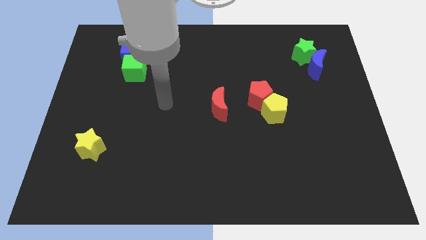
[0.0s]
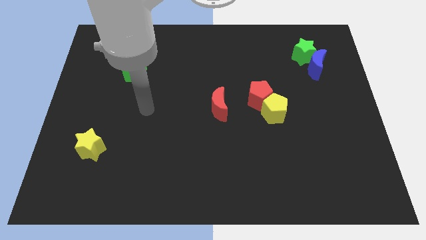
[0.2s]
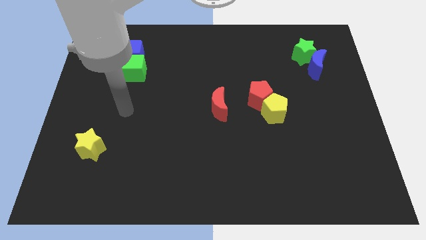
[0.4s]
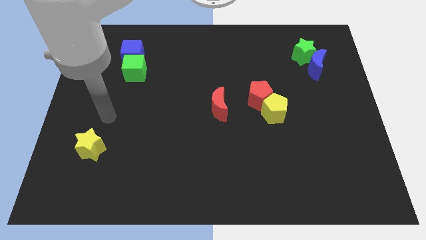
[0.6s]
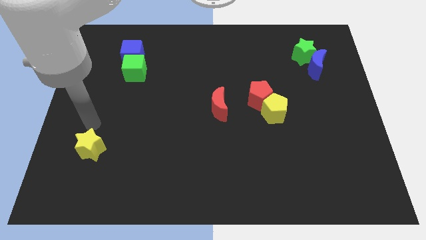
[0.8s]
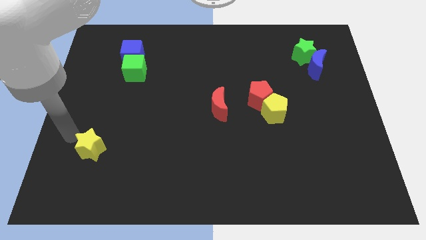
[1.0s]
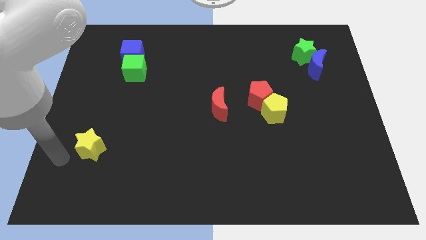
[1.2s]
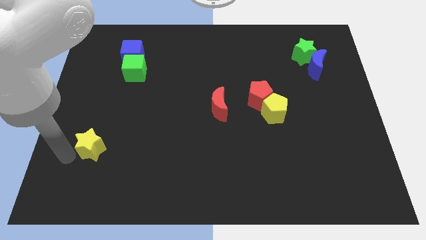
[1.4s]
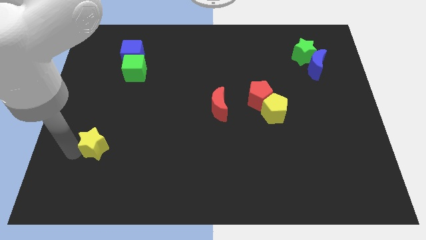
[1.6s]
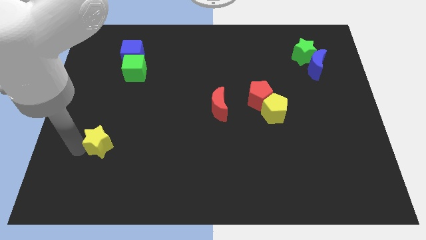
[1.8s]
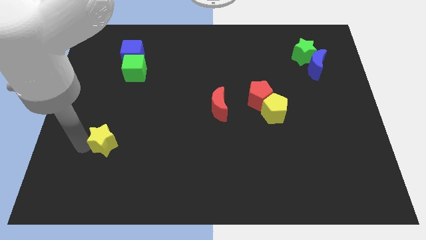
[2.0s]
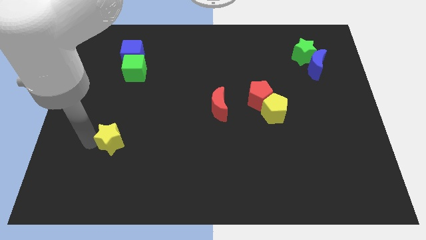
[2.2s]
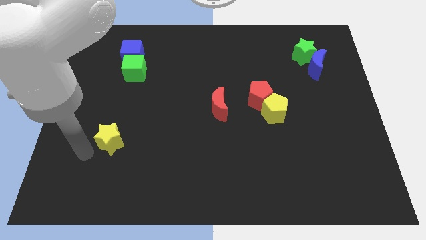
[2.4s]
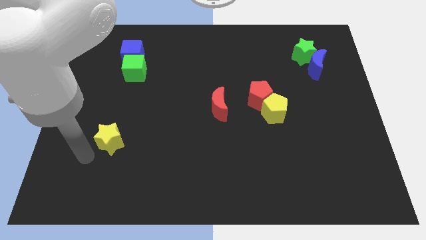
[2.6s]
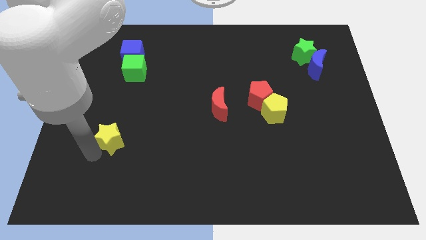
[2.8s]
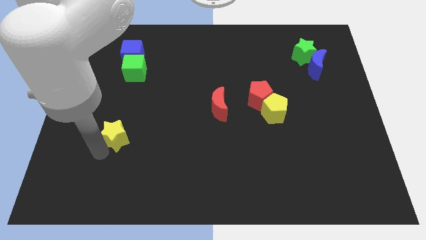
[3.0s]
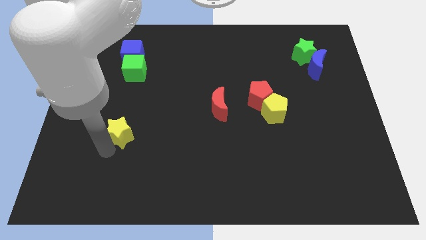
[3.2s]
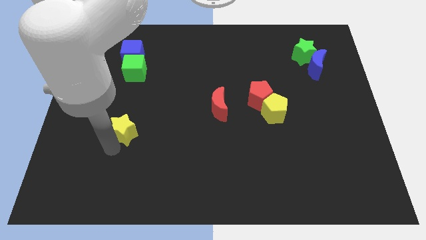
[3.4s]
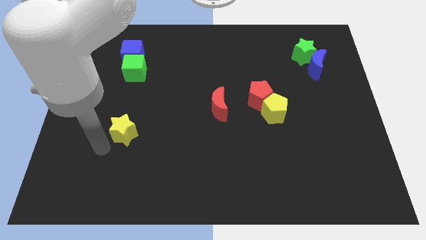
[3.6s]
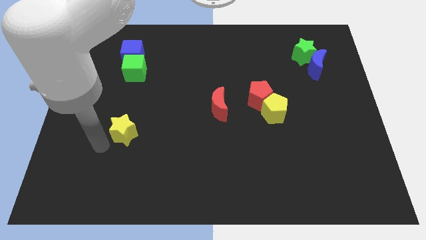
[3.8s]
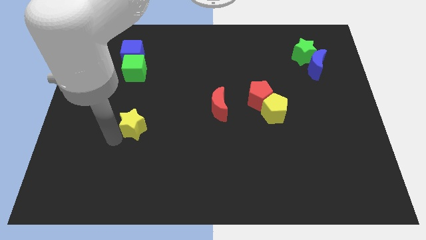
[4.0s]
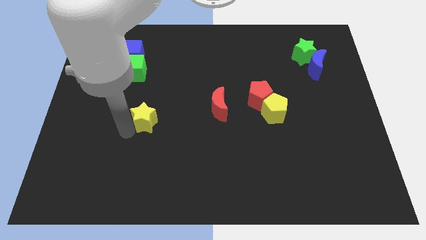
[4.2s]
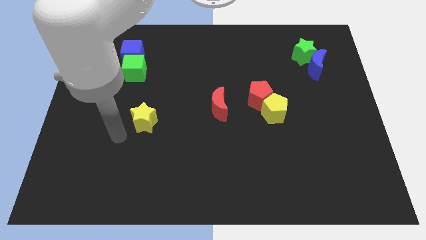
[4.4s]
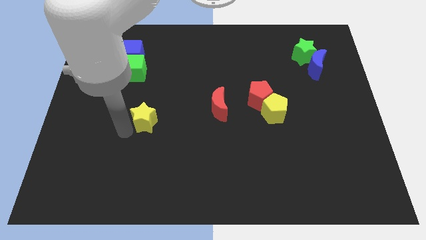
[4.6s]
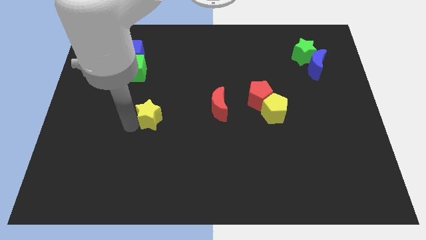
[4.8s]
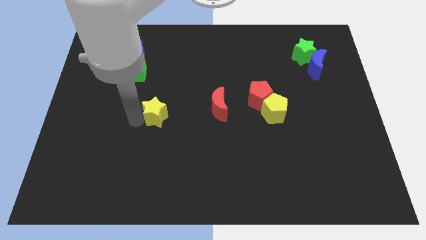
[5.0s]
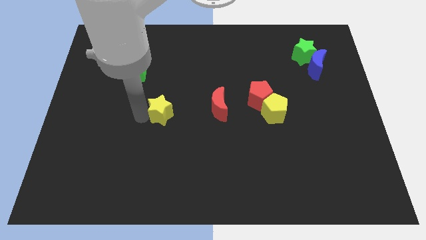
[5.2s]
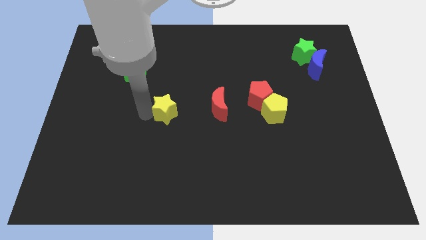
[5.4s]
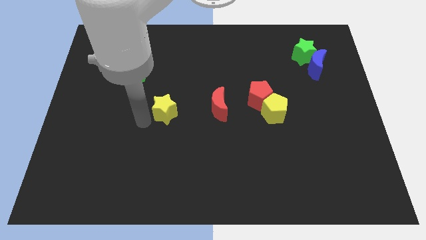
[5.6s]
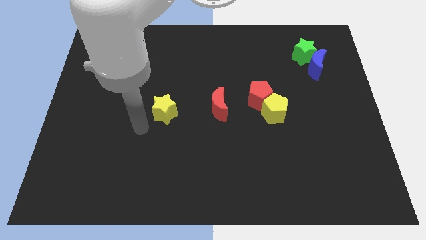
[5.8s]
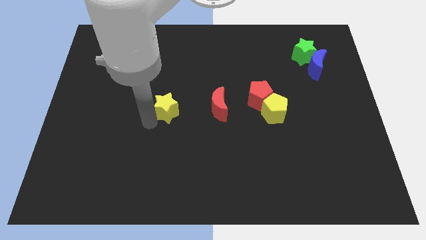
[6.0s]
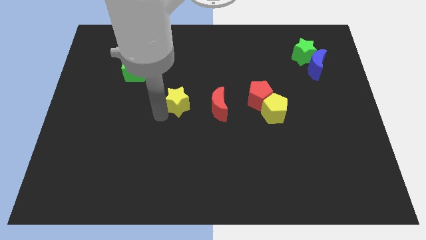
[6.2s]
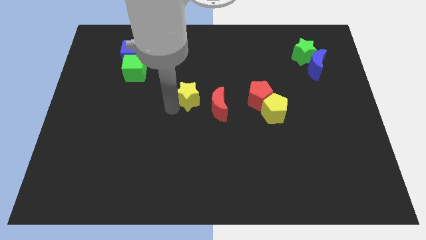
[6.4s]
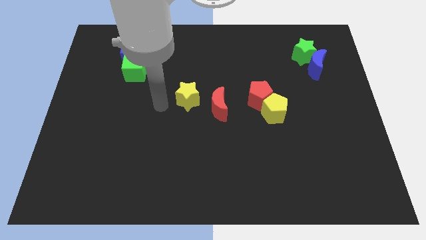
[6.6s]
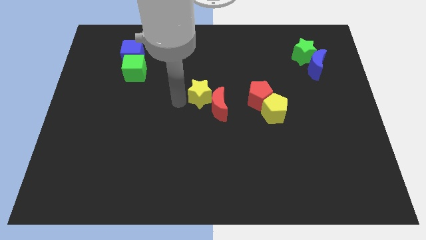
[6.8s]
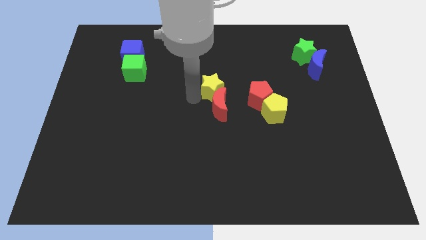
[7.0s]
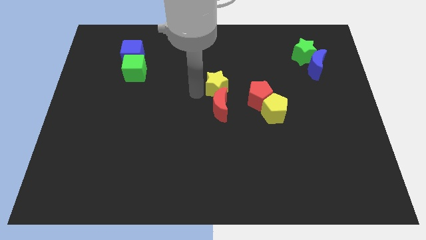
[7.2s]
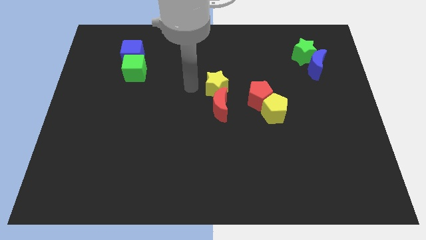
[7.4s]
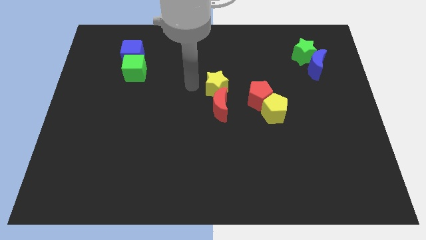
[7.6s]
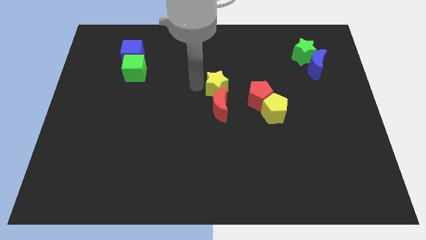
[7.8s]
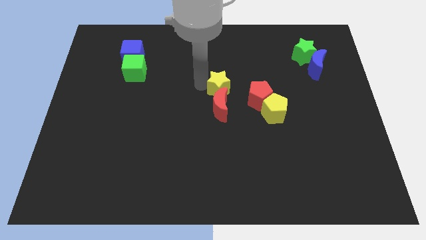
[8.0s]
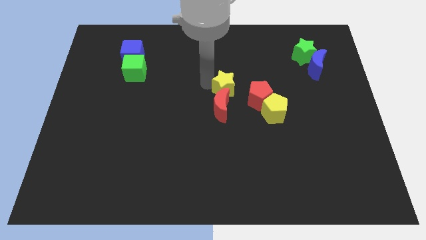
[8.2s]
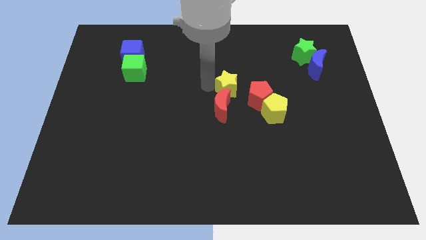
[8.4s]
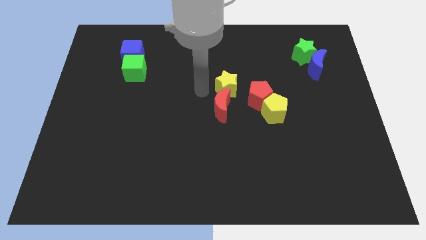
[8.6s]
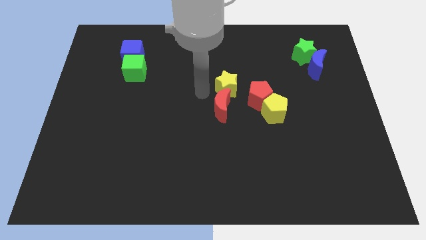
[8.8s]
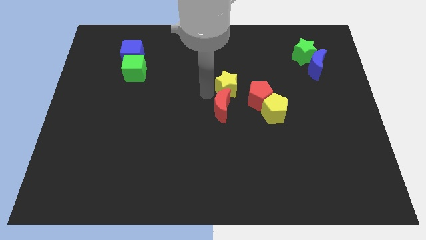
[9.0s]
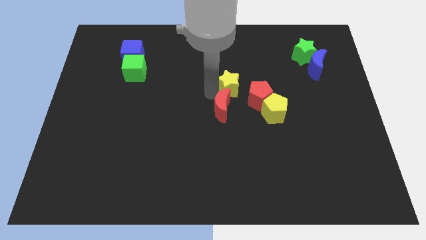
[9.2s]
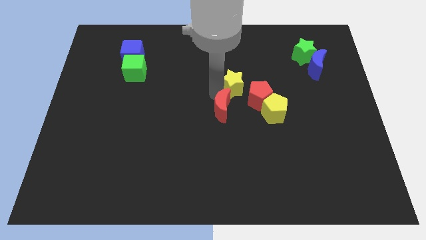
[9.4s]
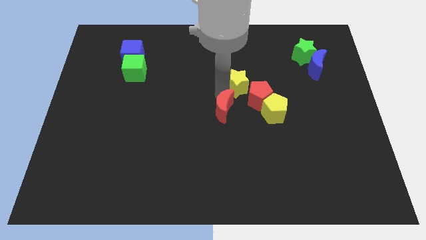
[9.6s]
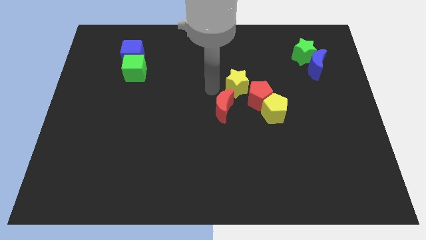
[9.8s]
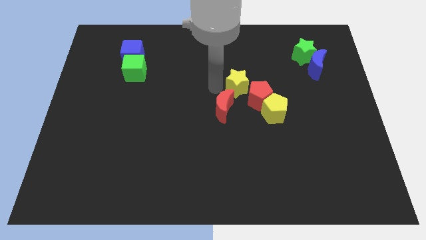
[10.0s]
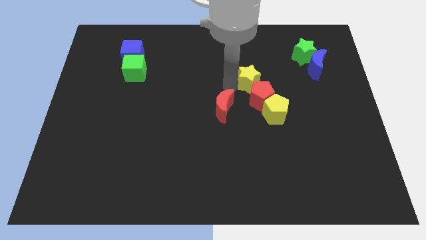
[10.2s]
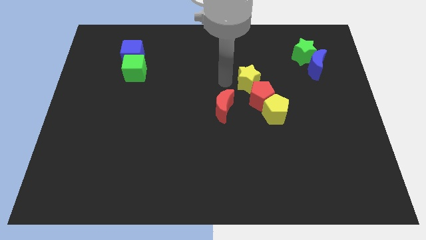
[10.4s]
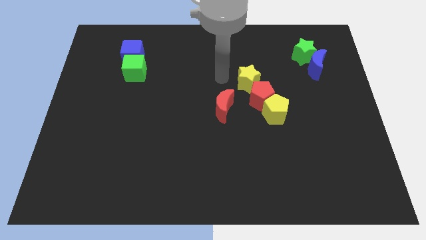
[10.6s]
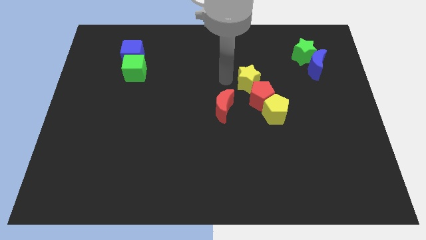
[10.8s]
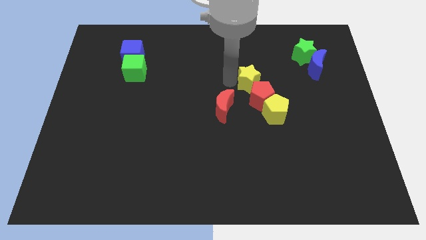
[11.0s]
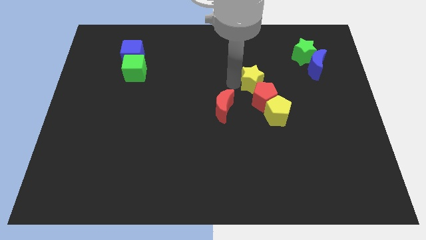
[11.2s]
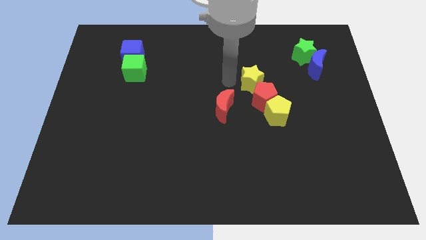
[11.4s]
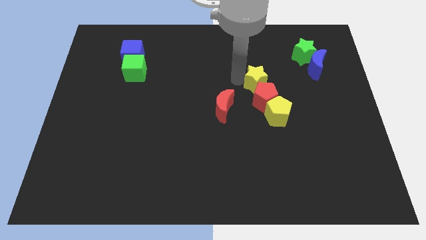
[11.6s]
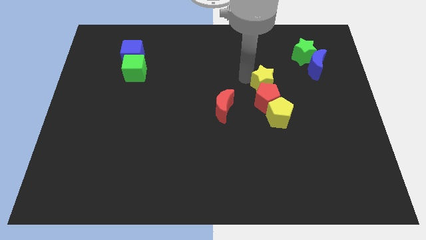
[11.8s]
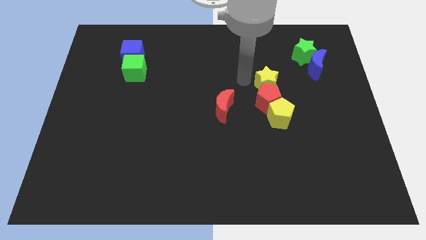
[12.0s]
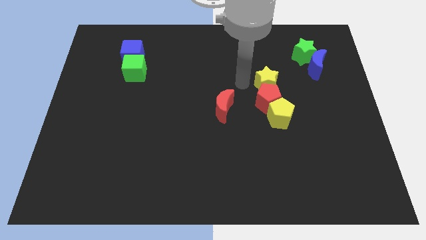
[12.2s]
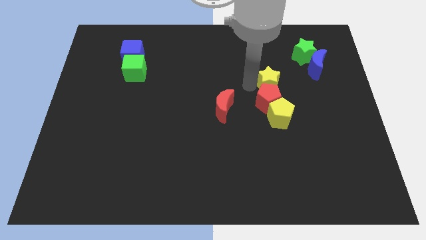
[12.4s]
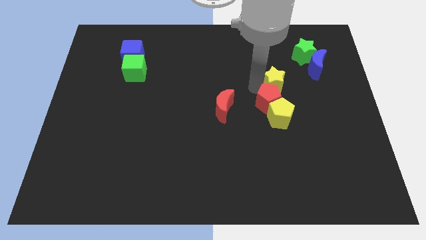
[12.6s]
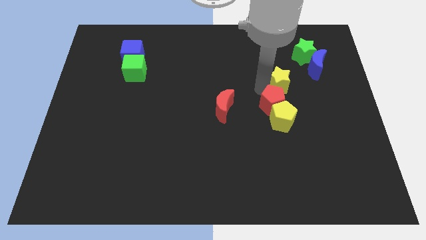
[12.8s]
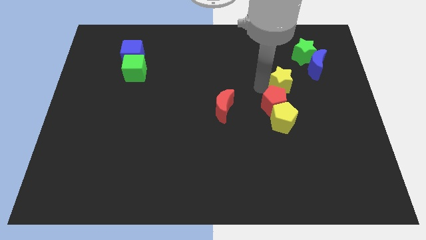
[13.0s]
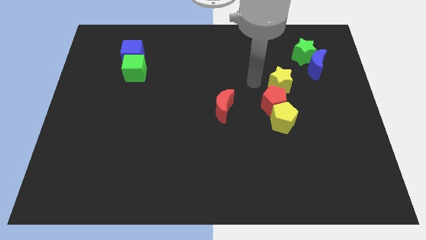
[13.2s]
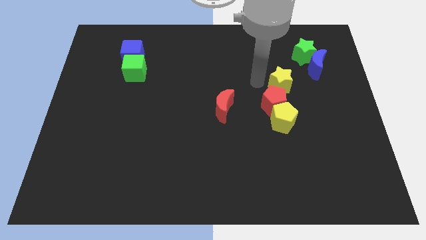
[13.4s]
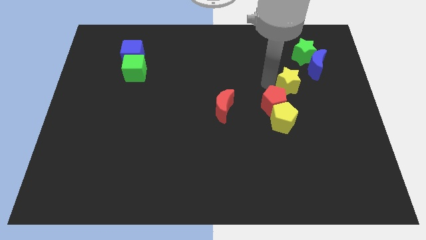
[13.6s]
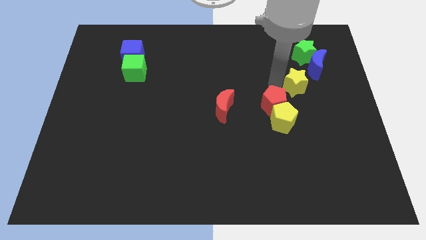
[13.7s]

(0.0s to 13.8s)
push the yellow star to the bottom side of the green star

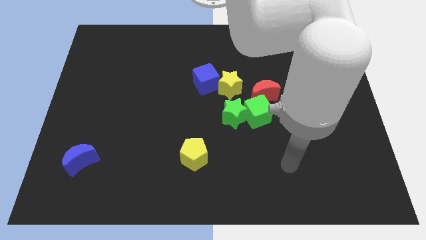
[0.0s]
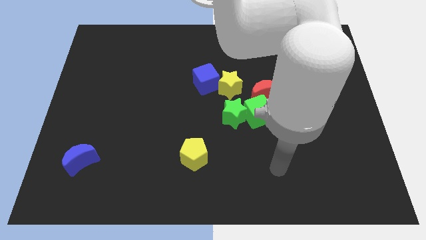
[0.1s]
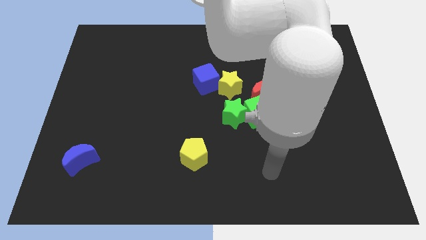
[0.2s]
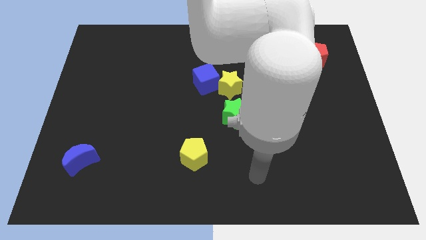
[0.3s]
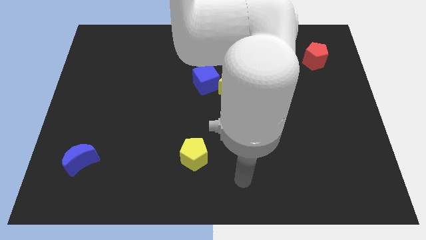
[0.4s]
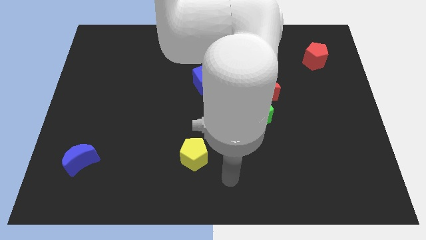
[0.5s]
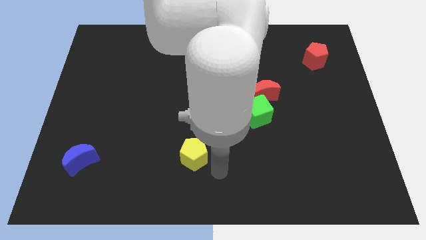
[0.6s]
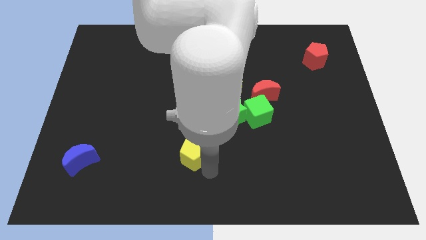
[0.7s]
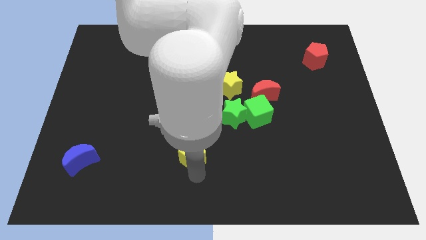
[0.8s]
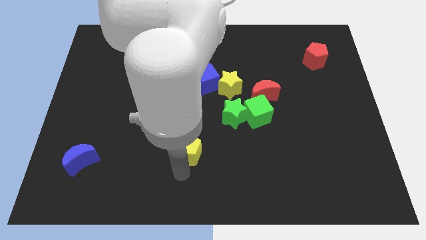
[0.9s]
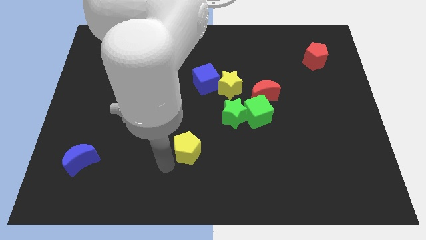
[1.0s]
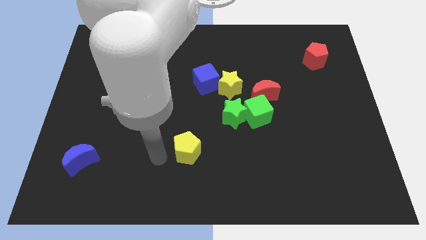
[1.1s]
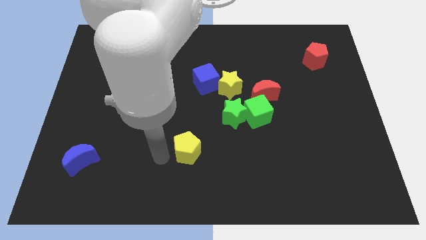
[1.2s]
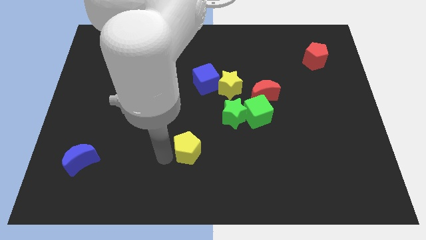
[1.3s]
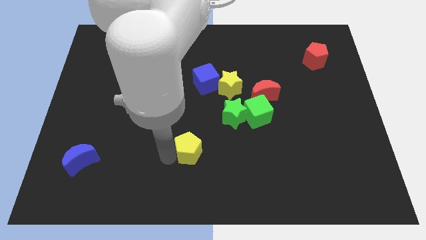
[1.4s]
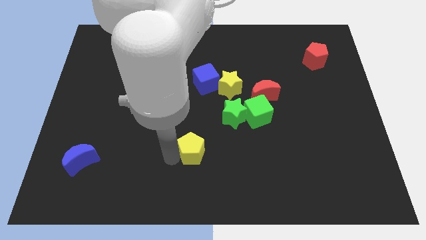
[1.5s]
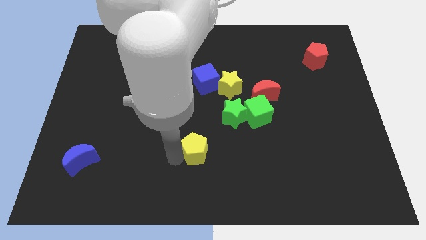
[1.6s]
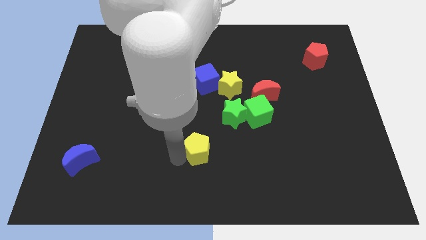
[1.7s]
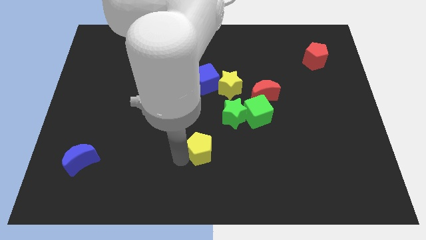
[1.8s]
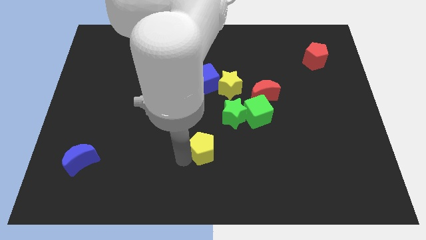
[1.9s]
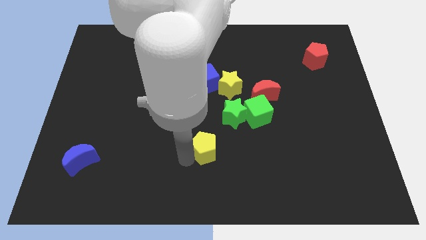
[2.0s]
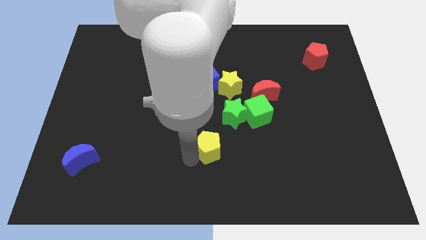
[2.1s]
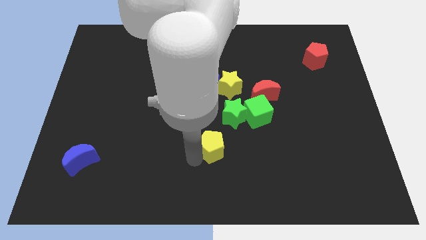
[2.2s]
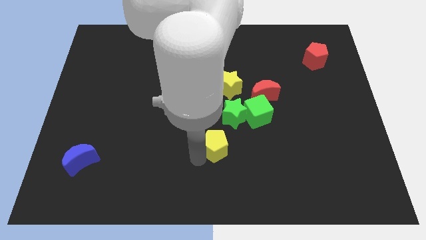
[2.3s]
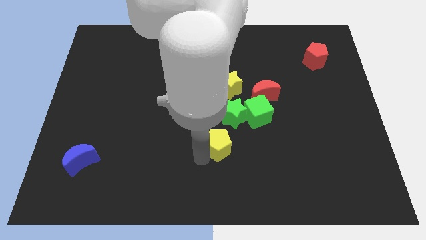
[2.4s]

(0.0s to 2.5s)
move the yellow pentagon diagonally down and to the left of the green cube
